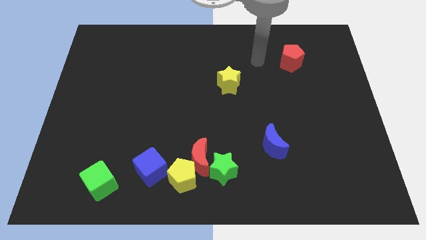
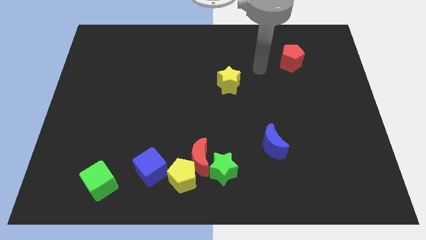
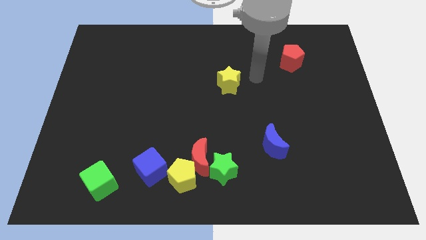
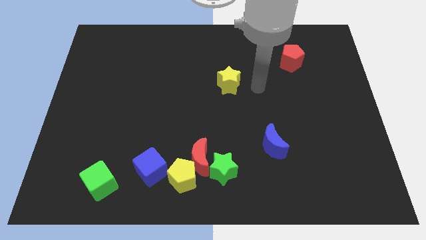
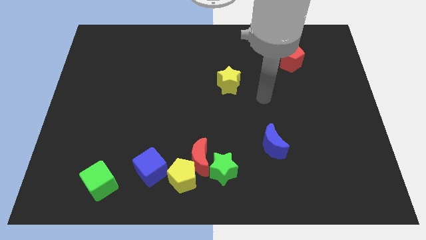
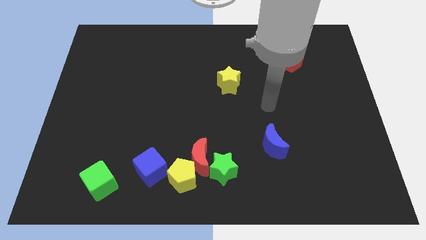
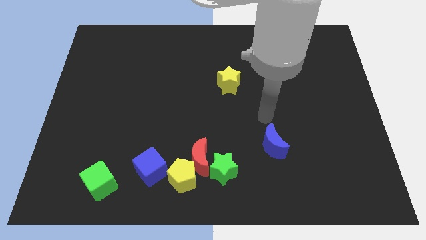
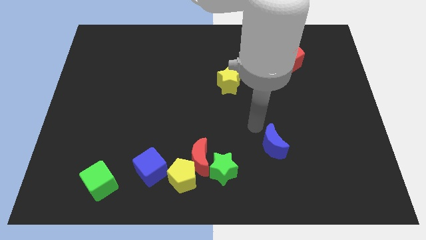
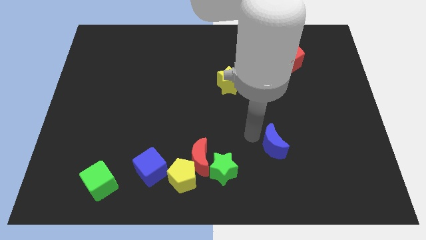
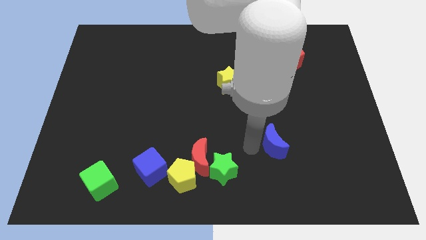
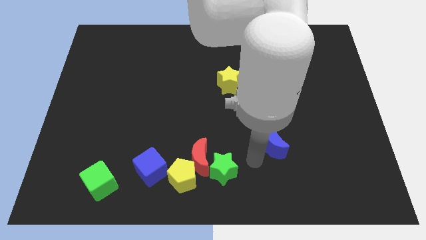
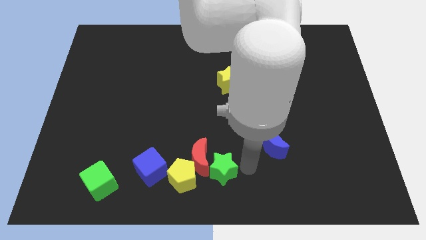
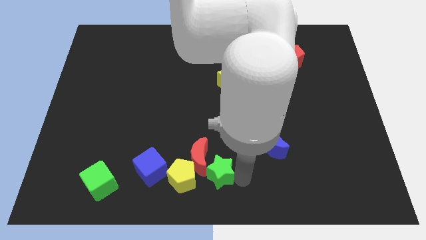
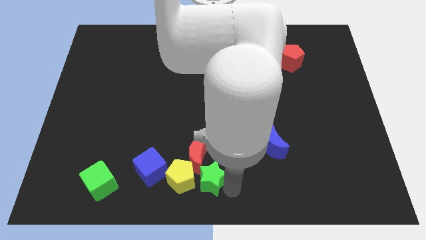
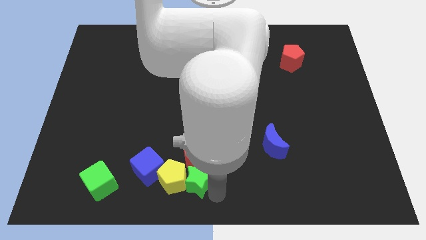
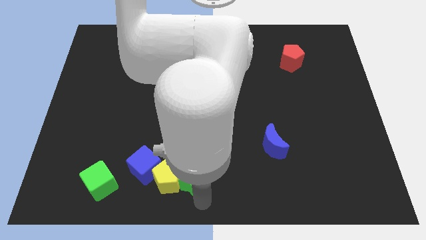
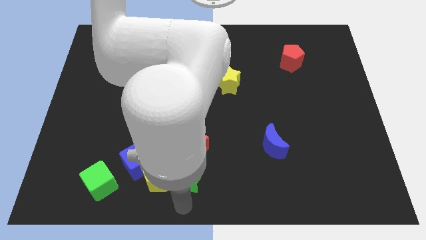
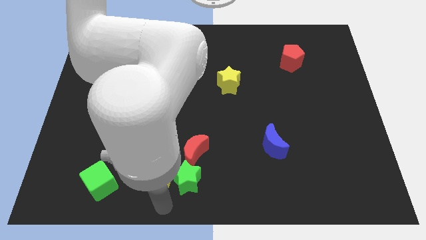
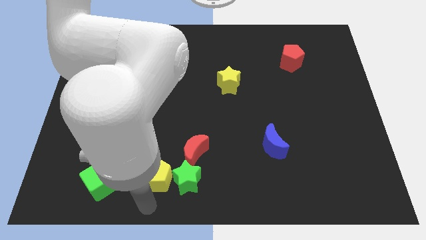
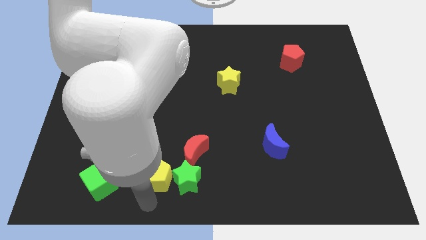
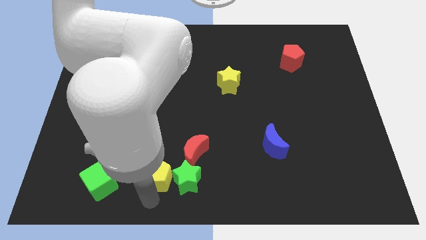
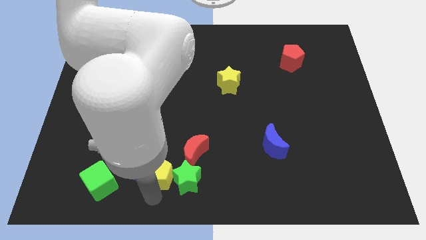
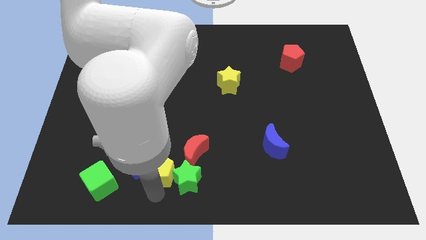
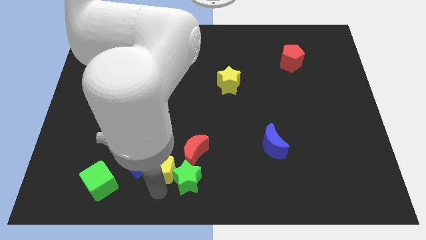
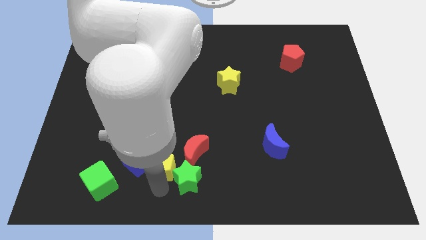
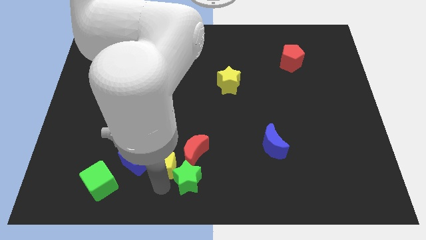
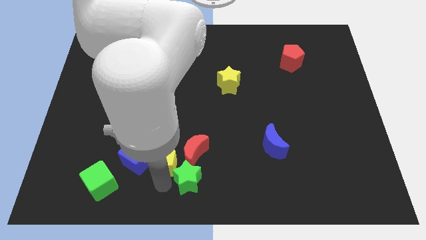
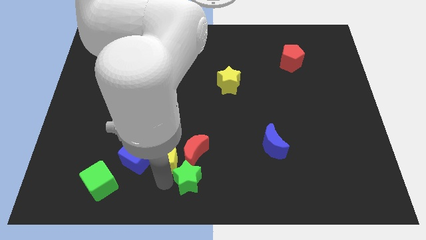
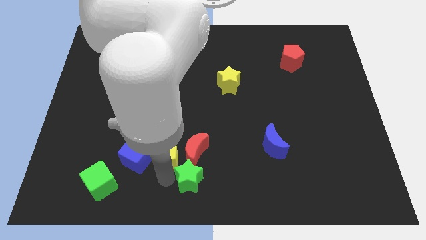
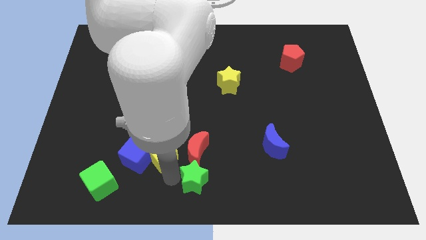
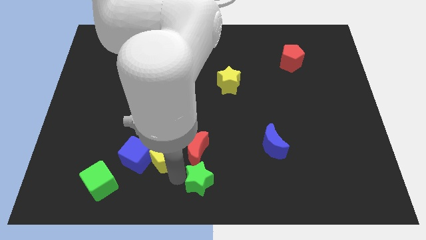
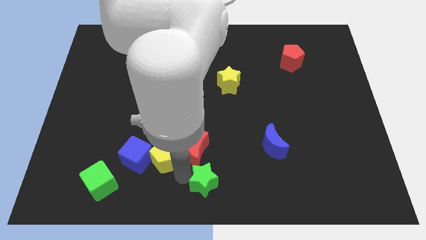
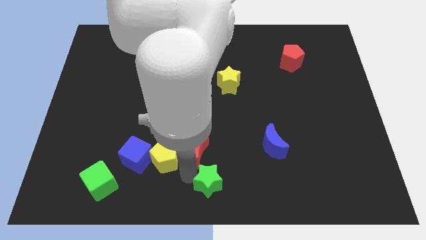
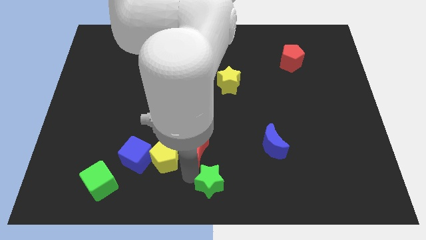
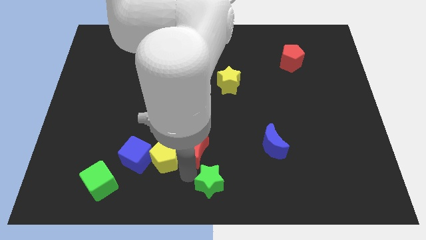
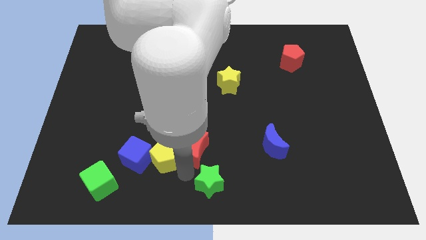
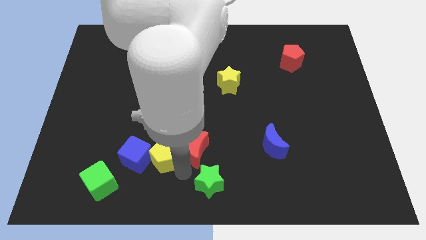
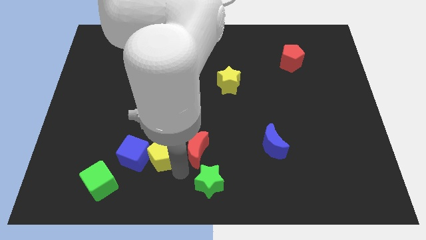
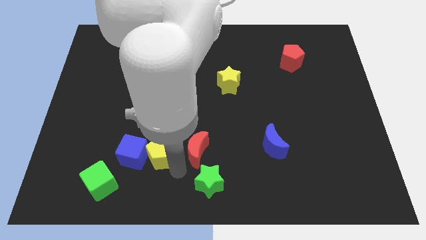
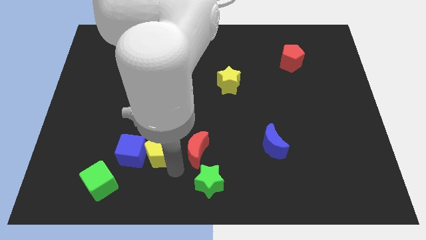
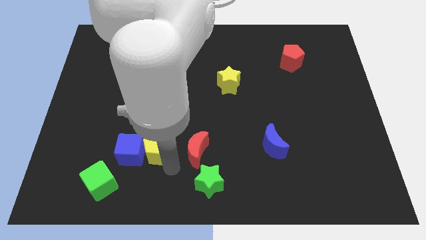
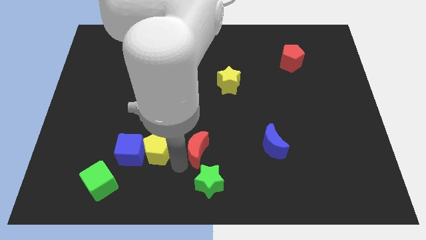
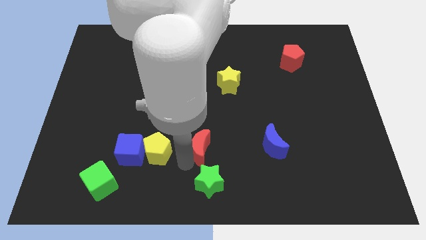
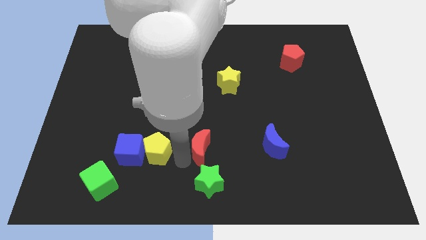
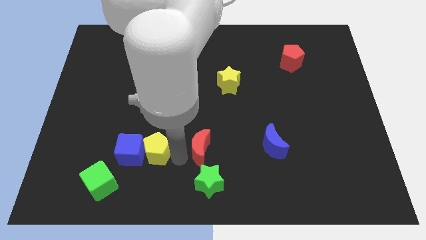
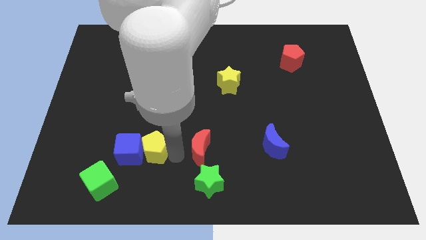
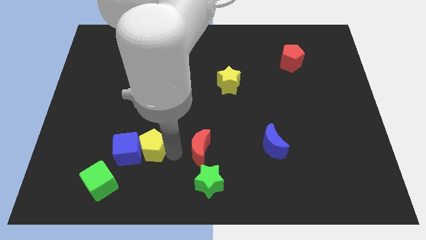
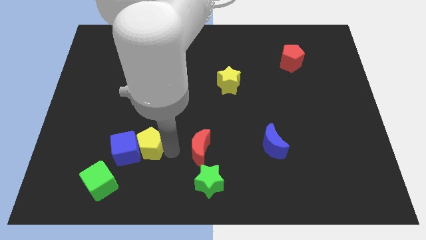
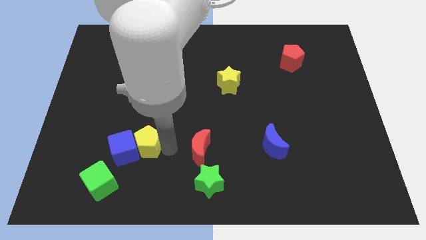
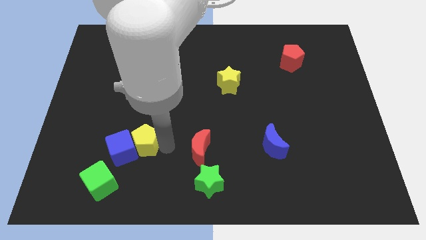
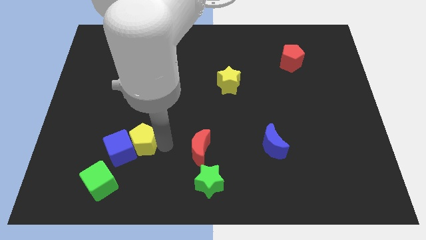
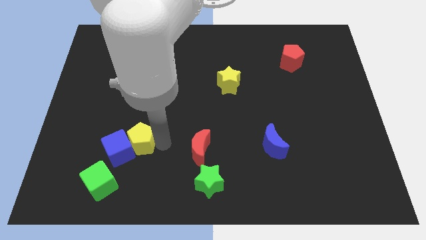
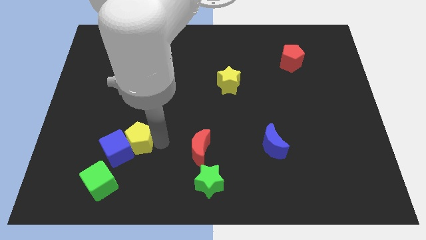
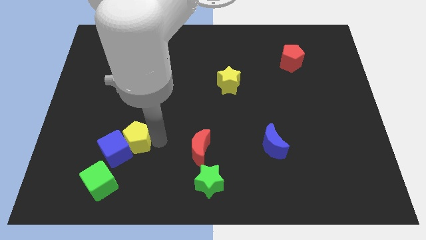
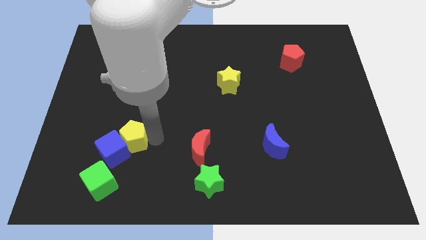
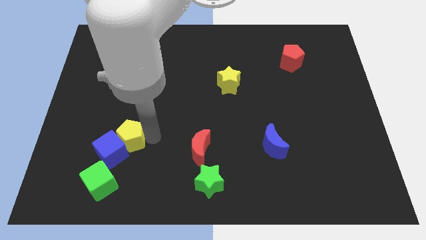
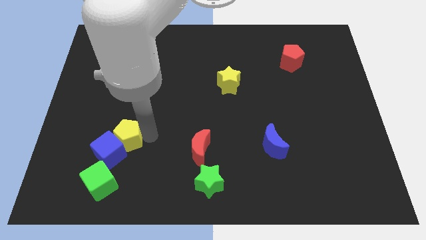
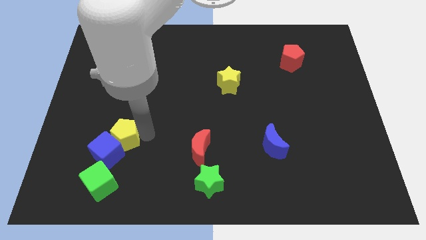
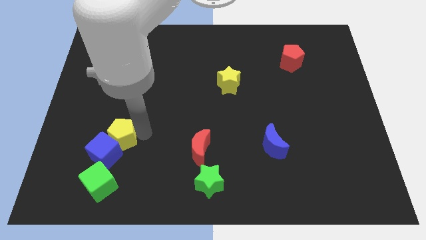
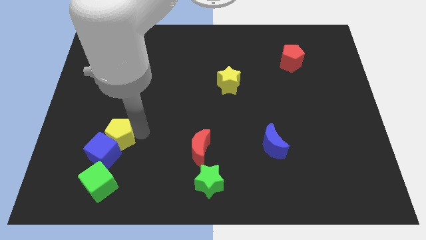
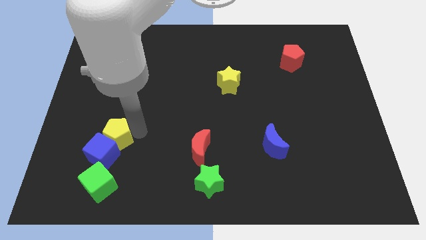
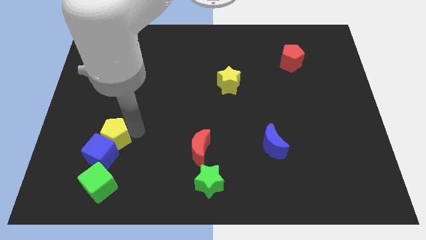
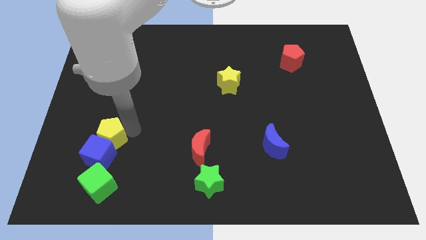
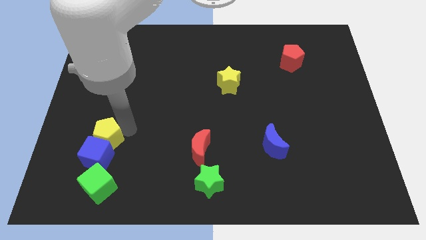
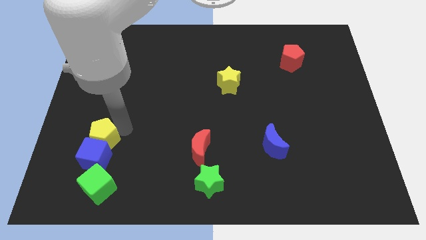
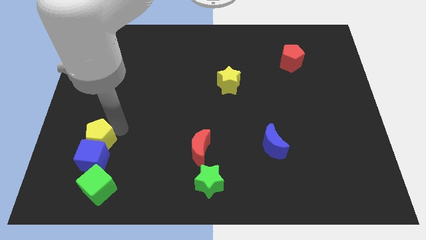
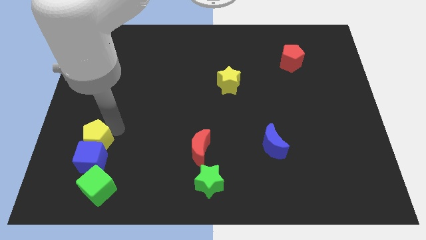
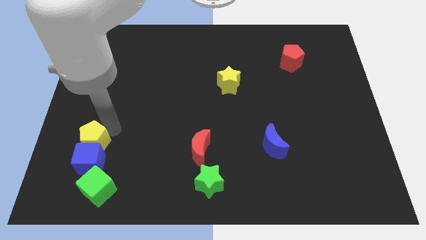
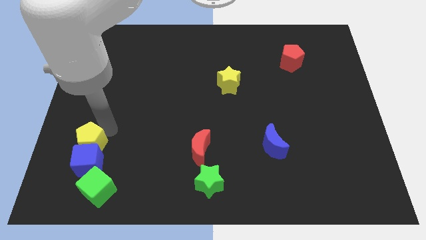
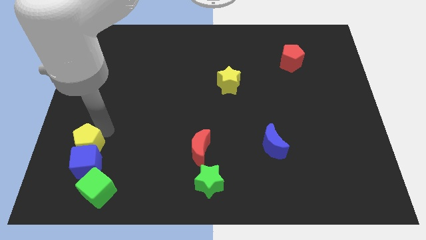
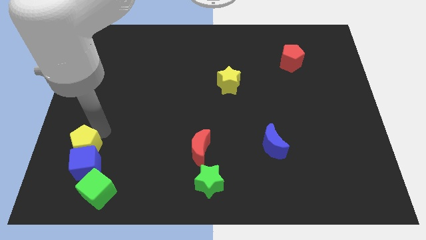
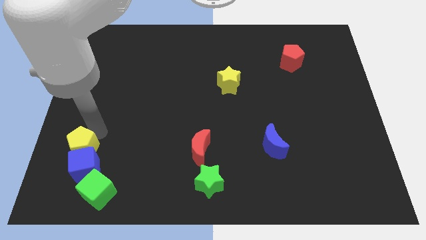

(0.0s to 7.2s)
move the yellow pentagon diagonally up and to the left of the green cube

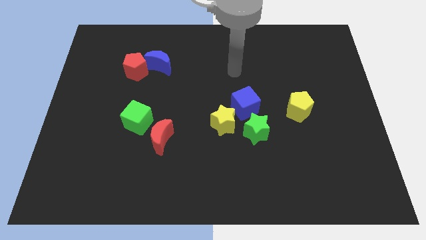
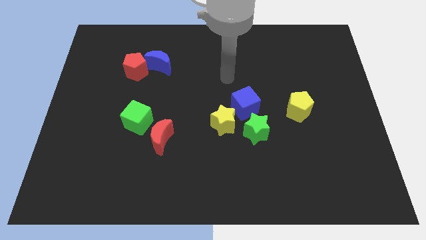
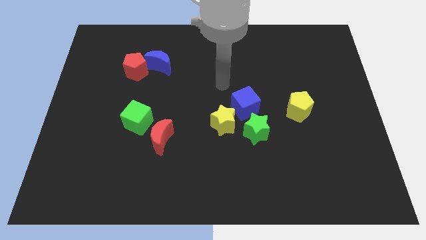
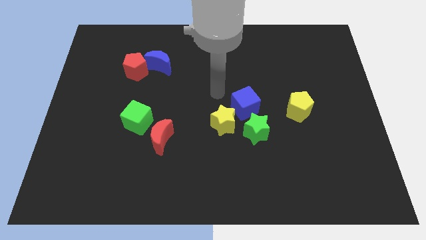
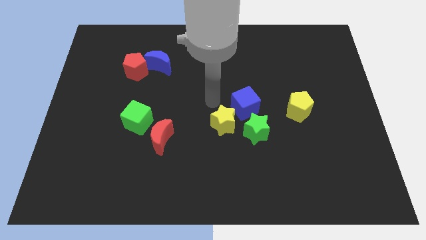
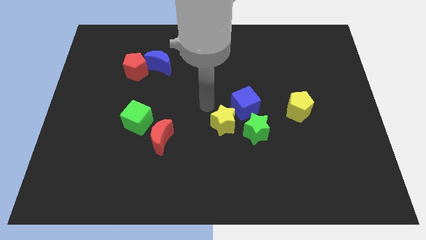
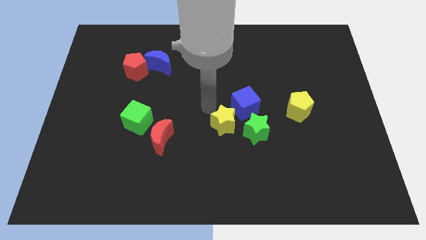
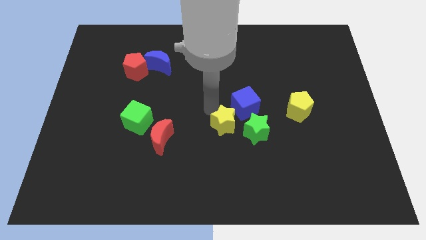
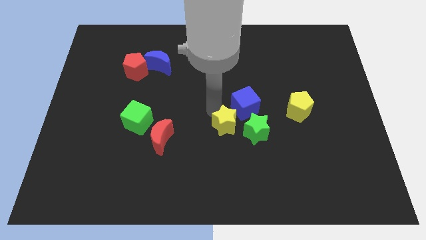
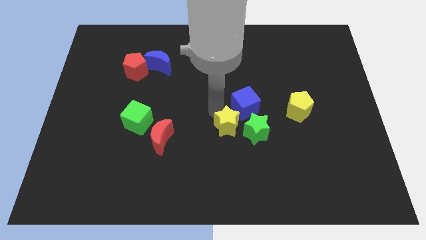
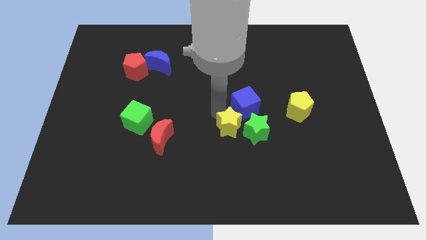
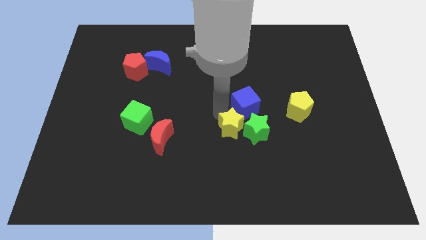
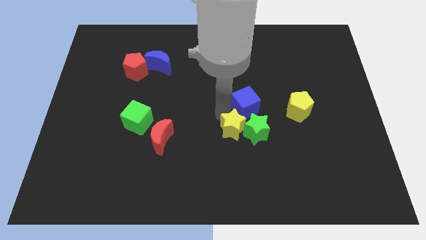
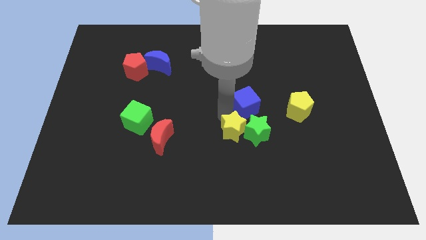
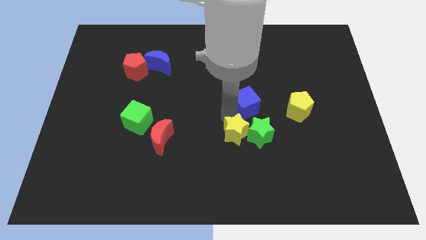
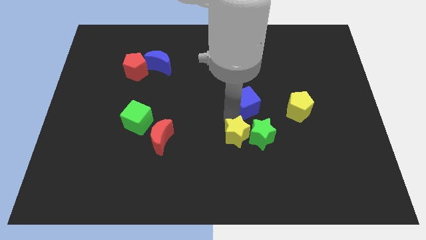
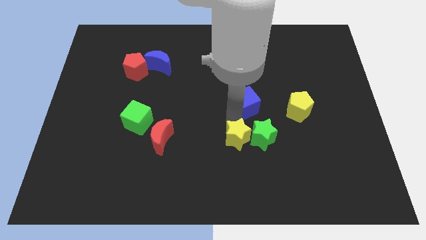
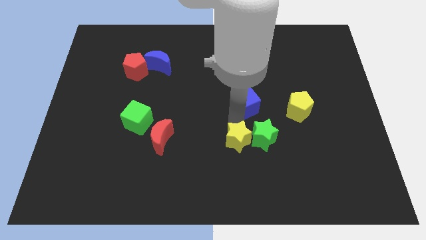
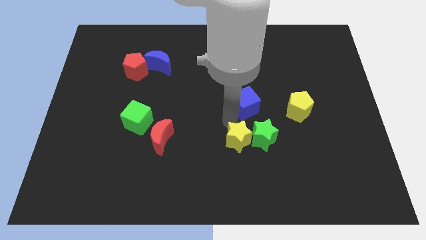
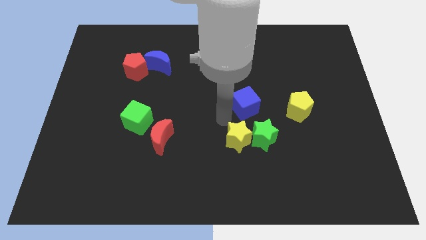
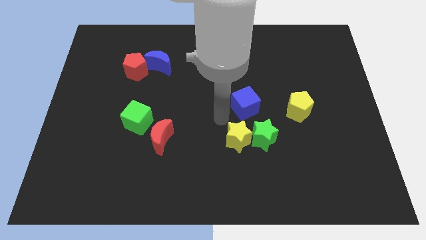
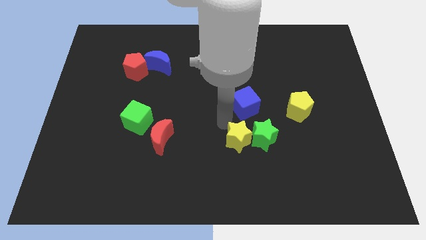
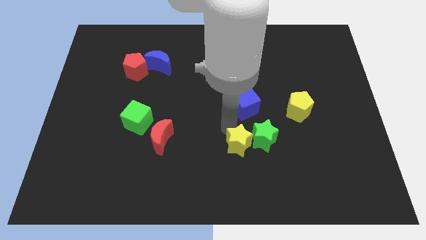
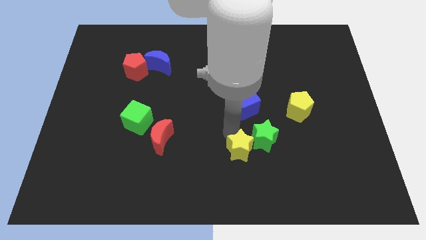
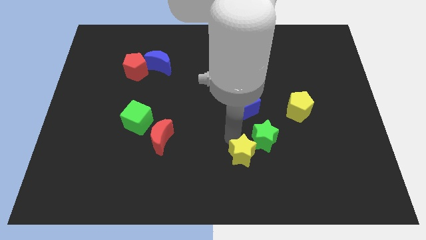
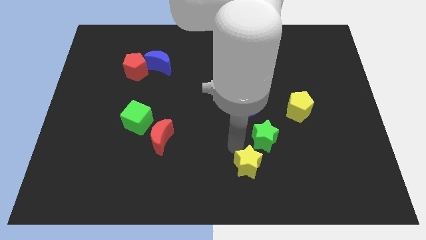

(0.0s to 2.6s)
push the yellow star to the bottom of the green star
